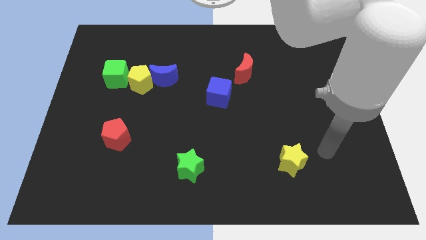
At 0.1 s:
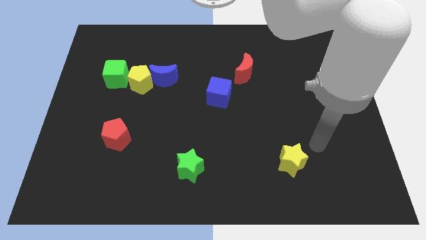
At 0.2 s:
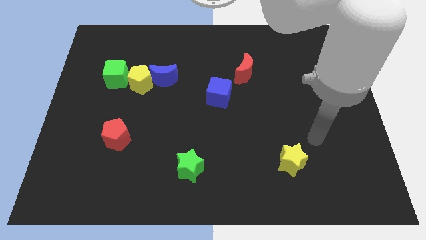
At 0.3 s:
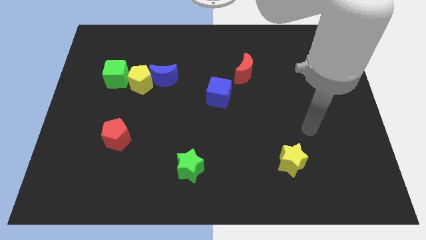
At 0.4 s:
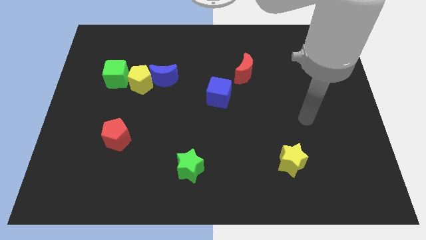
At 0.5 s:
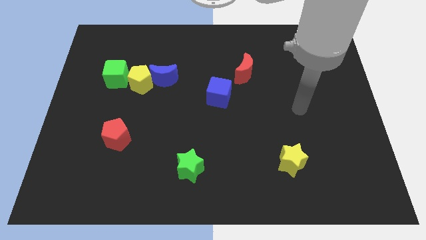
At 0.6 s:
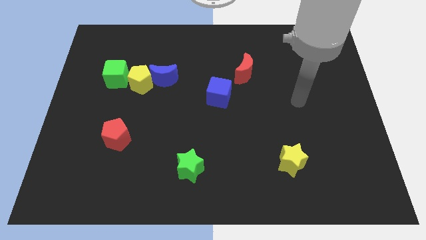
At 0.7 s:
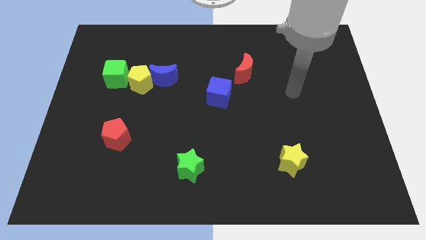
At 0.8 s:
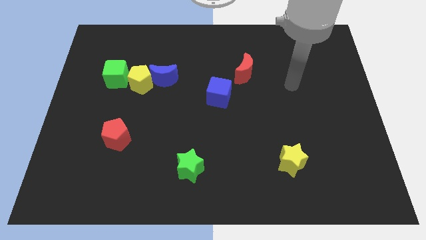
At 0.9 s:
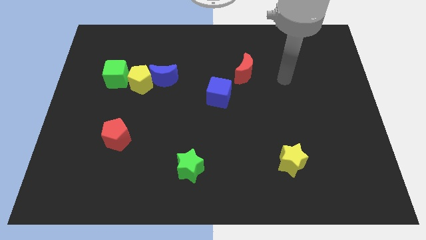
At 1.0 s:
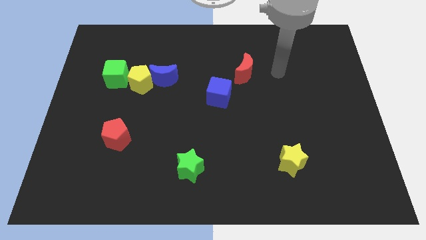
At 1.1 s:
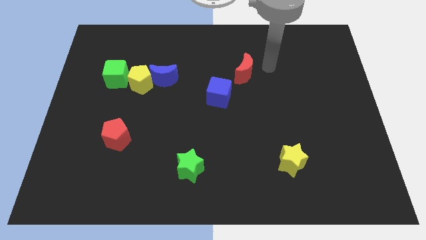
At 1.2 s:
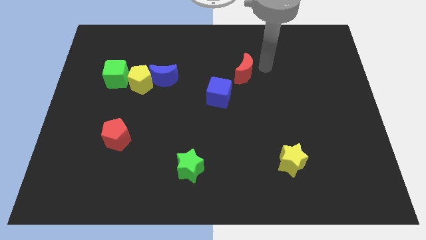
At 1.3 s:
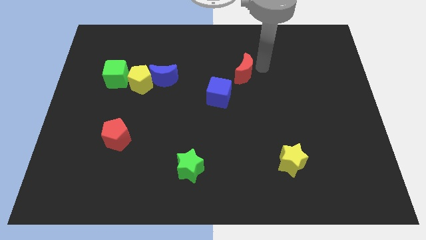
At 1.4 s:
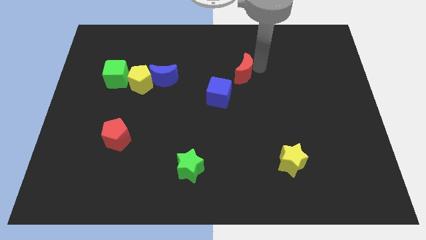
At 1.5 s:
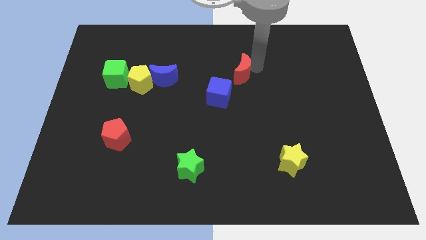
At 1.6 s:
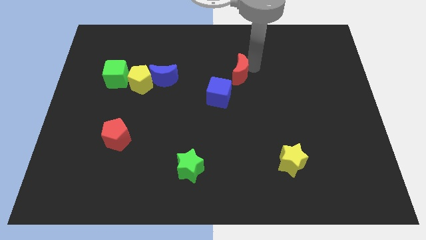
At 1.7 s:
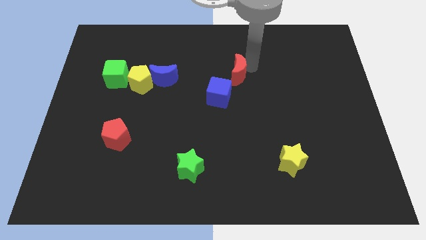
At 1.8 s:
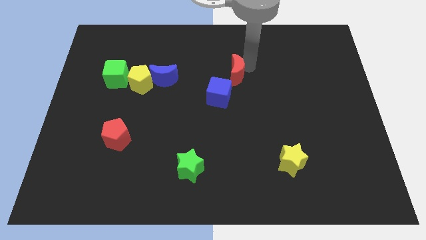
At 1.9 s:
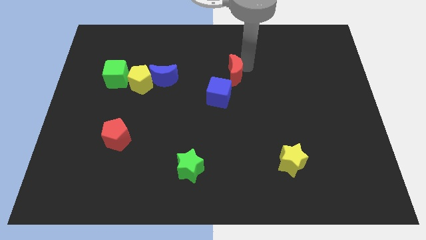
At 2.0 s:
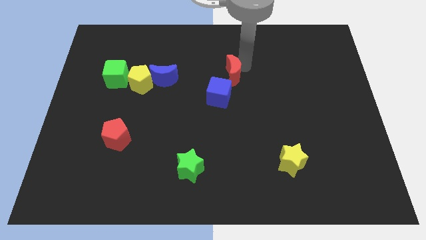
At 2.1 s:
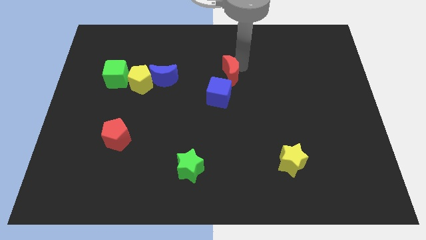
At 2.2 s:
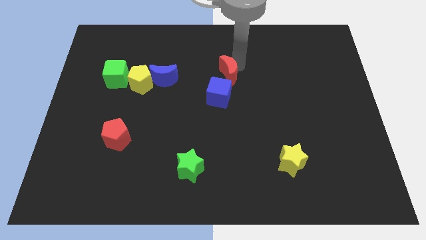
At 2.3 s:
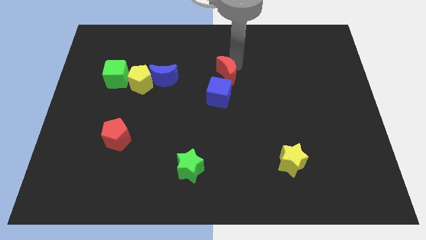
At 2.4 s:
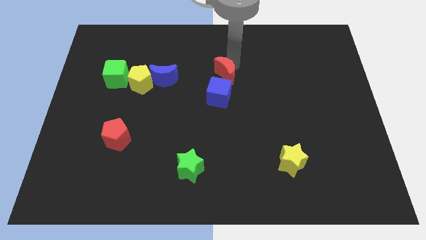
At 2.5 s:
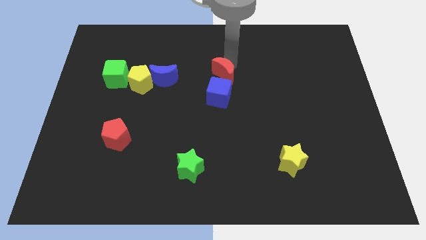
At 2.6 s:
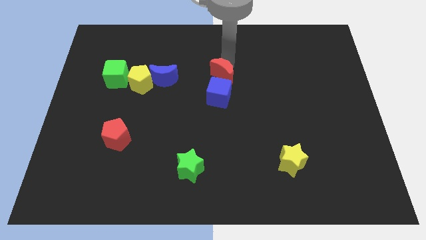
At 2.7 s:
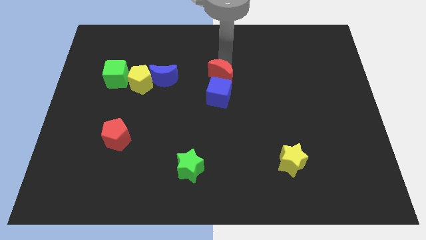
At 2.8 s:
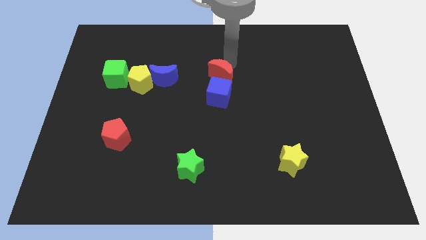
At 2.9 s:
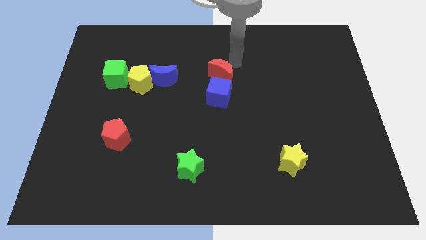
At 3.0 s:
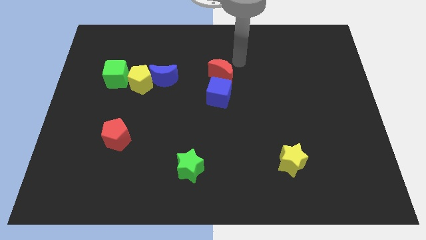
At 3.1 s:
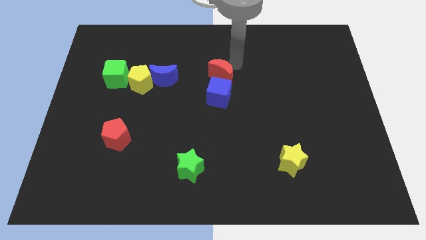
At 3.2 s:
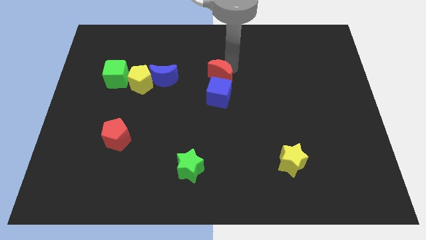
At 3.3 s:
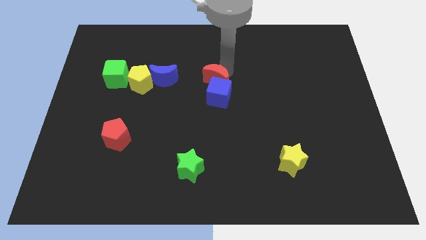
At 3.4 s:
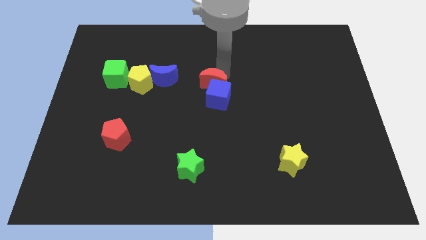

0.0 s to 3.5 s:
move the red moon down and left a little

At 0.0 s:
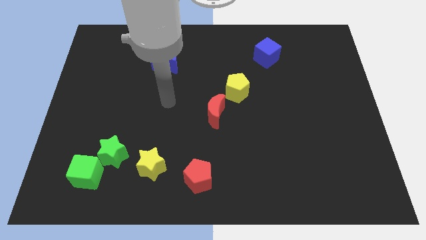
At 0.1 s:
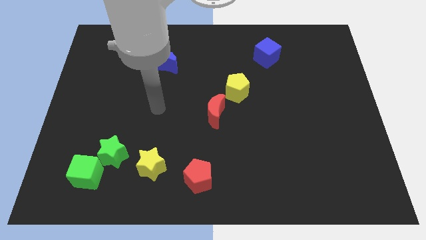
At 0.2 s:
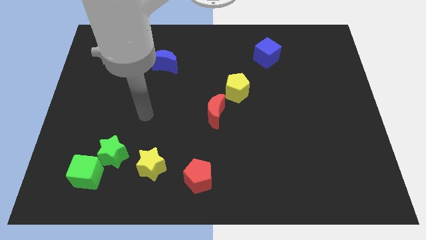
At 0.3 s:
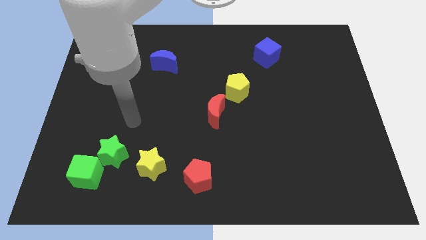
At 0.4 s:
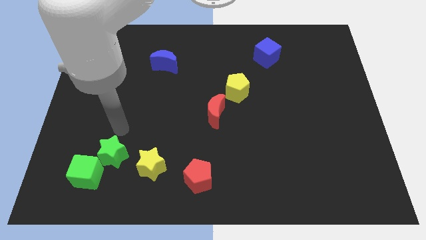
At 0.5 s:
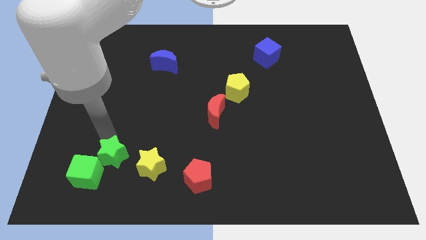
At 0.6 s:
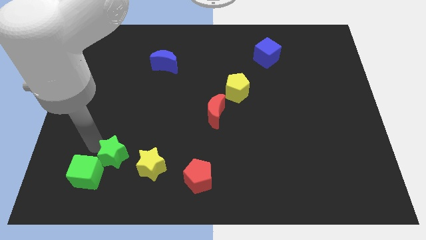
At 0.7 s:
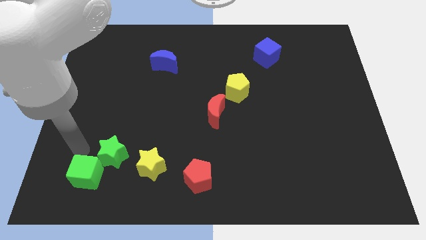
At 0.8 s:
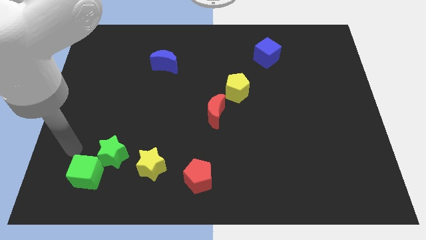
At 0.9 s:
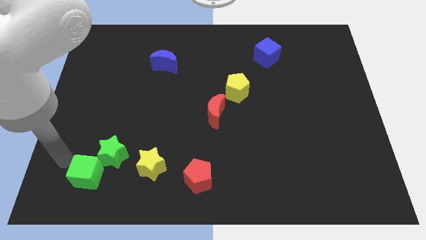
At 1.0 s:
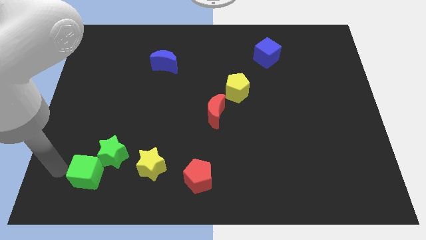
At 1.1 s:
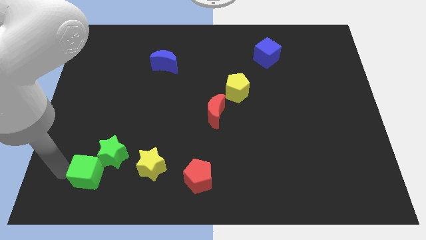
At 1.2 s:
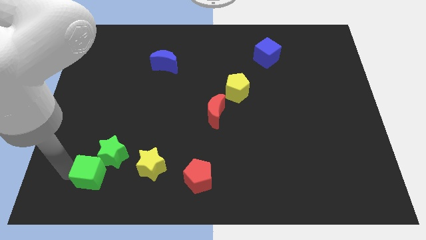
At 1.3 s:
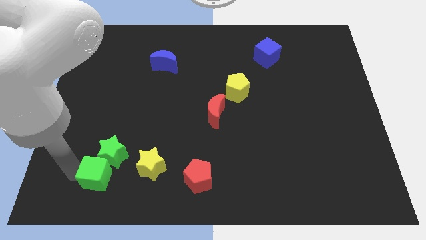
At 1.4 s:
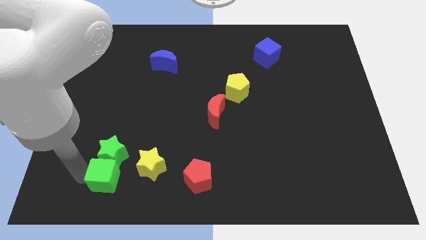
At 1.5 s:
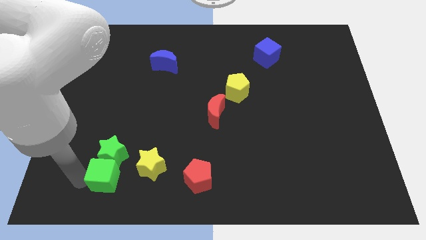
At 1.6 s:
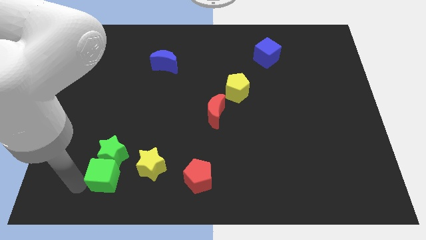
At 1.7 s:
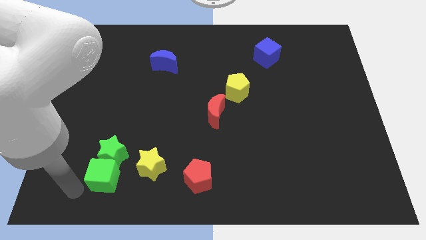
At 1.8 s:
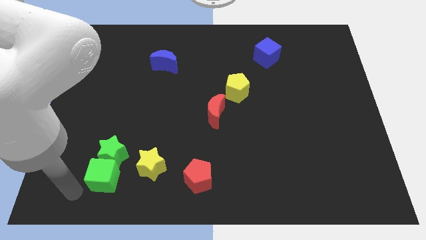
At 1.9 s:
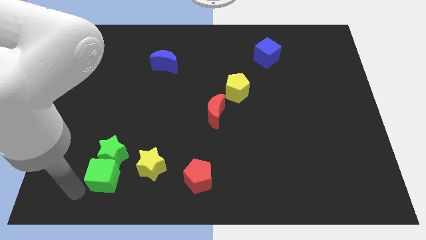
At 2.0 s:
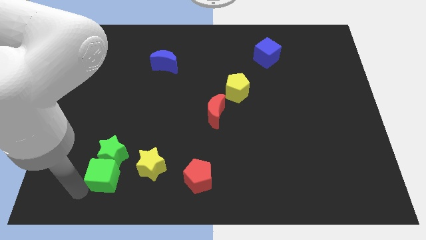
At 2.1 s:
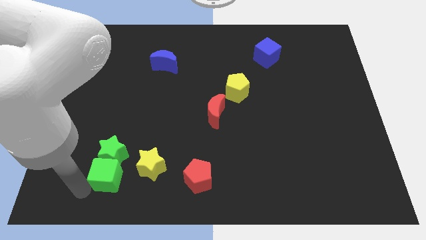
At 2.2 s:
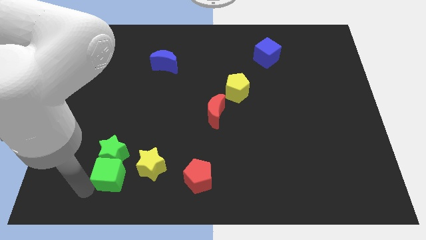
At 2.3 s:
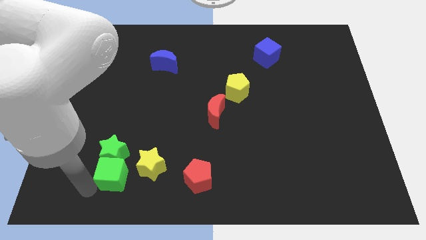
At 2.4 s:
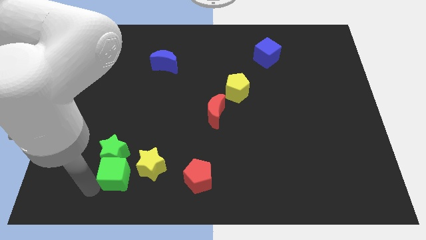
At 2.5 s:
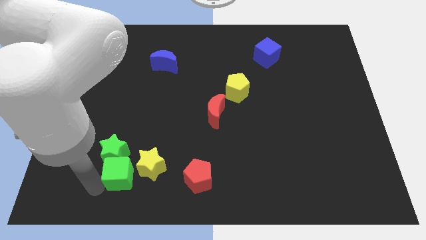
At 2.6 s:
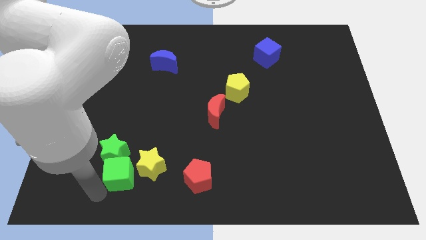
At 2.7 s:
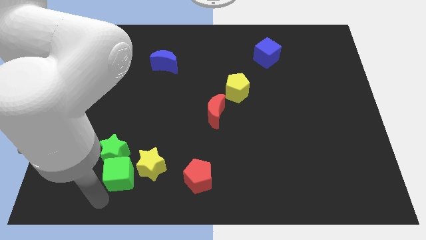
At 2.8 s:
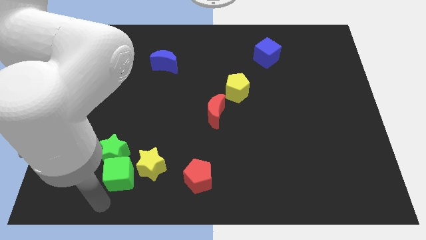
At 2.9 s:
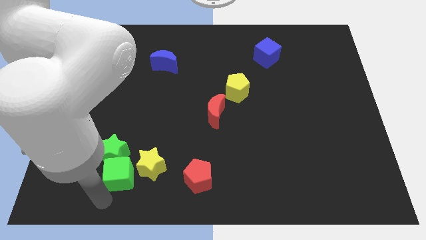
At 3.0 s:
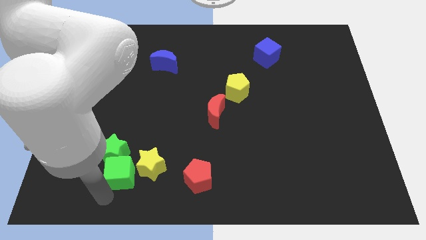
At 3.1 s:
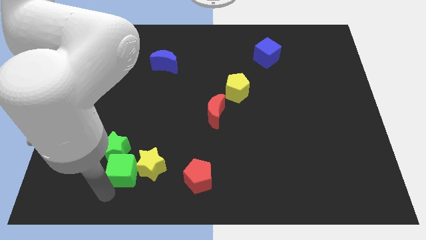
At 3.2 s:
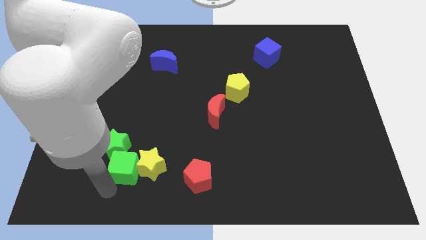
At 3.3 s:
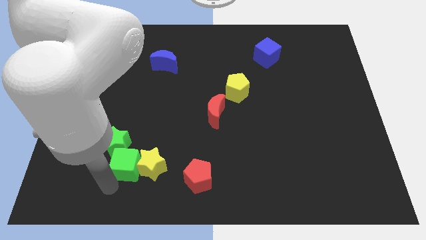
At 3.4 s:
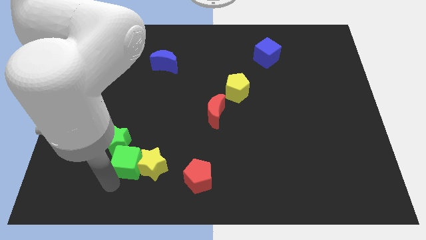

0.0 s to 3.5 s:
slightly slide the green cube diagonally up and right

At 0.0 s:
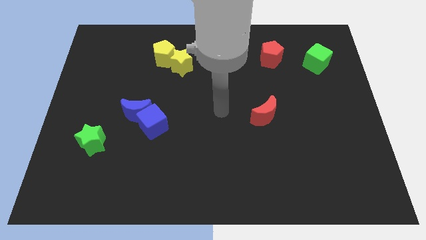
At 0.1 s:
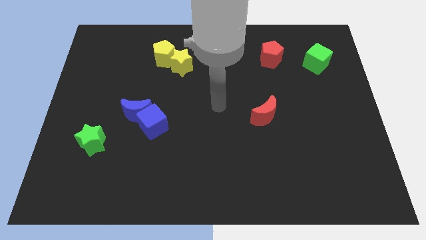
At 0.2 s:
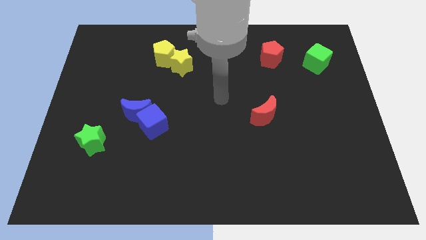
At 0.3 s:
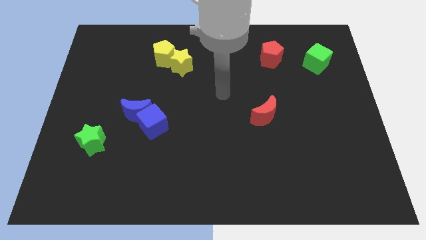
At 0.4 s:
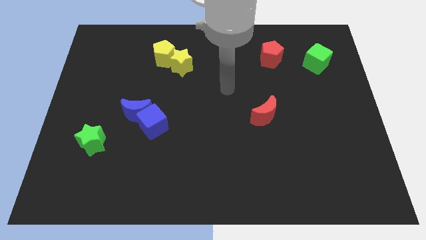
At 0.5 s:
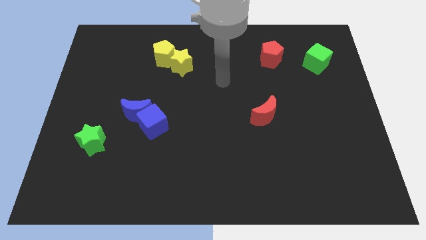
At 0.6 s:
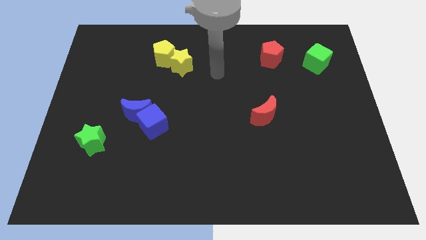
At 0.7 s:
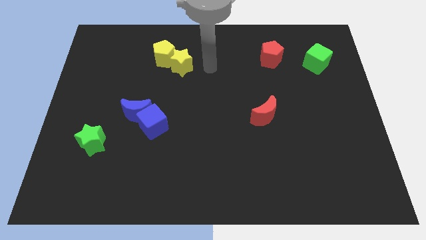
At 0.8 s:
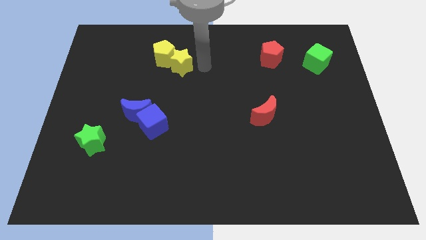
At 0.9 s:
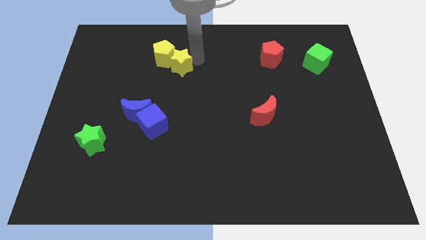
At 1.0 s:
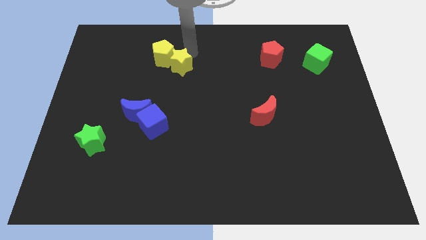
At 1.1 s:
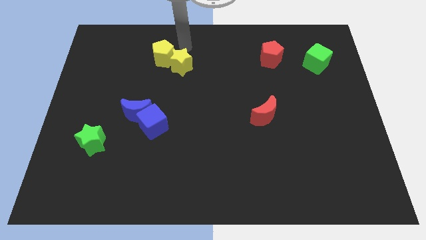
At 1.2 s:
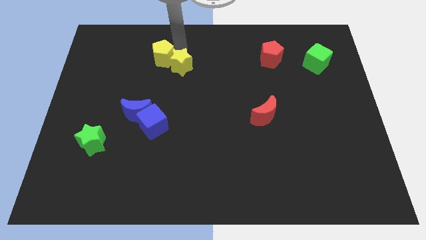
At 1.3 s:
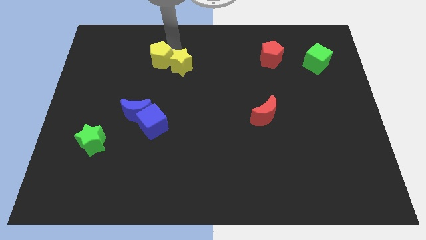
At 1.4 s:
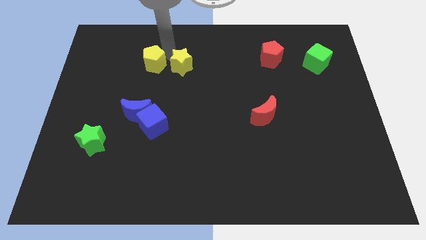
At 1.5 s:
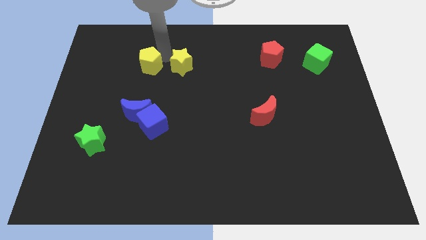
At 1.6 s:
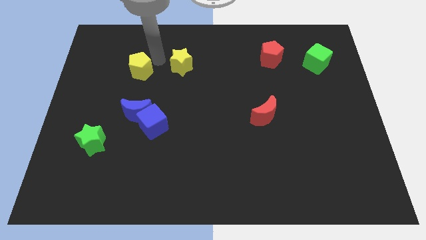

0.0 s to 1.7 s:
slightly slide the yellow pentagon downwards and left diagonally
